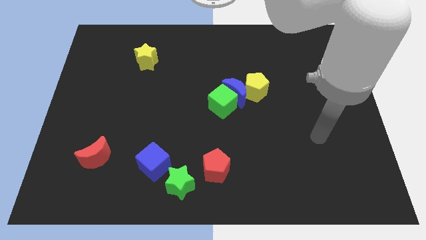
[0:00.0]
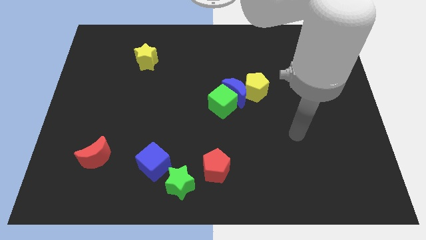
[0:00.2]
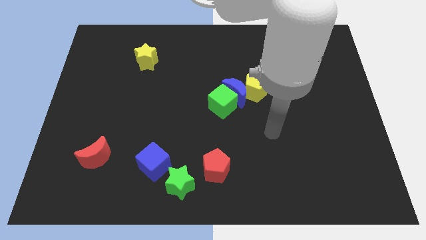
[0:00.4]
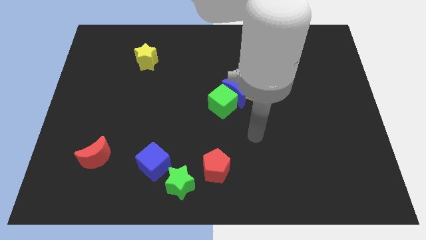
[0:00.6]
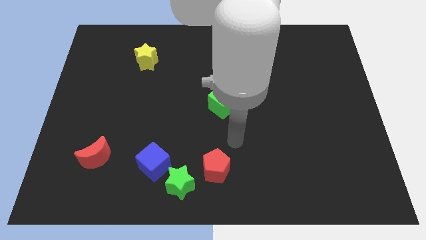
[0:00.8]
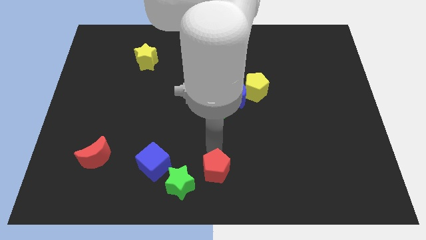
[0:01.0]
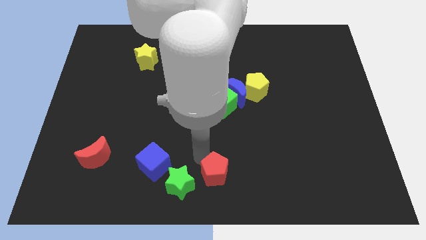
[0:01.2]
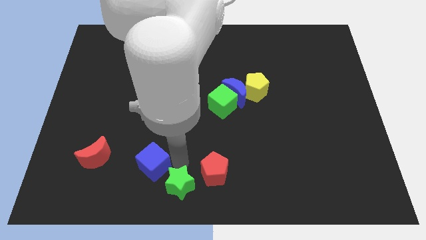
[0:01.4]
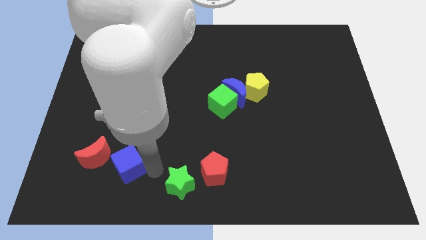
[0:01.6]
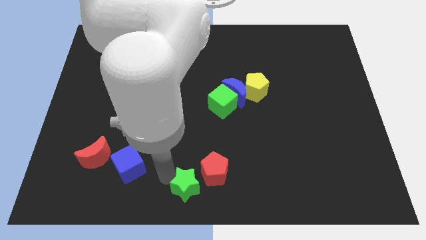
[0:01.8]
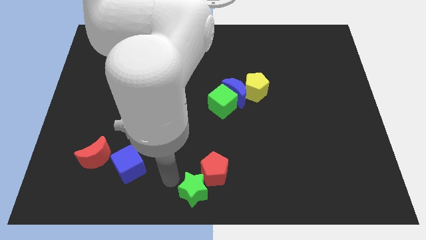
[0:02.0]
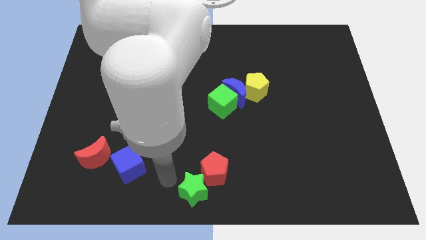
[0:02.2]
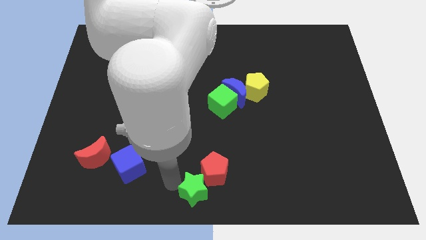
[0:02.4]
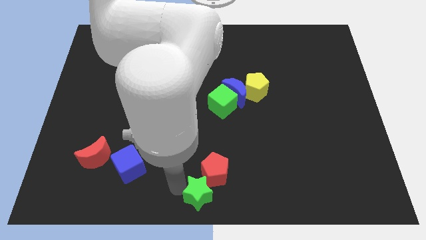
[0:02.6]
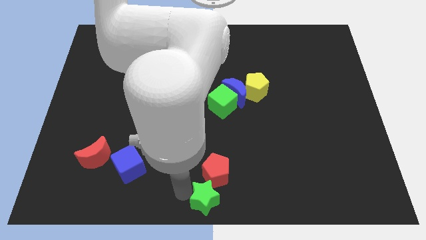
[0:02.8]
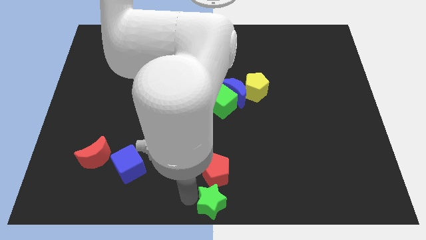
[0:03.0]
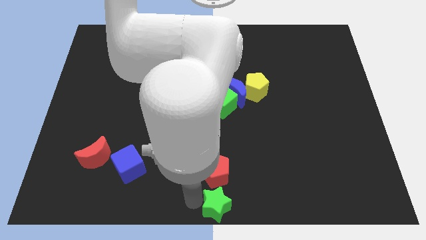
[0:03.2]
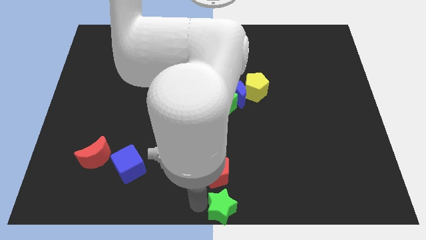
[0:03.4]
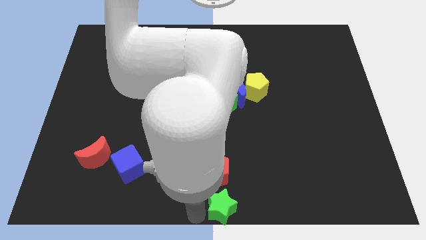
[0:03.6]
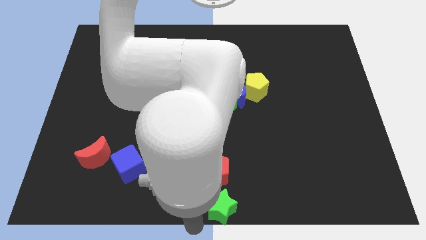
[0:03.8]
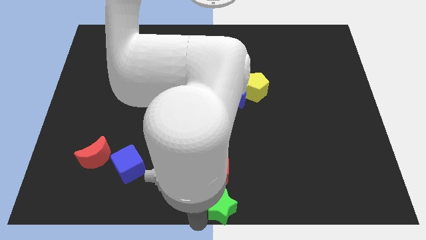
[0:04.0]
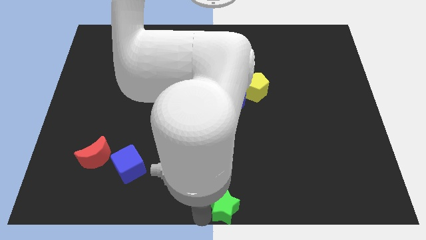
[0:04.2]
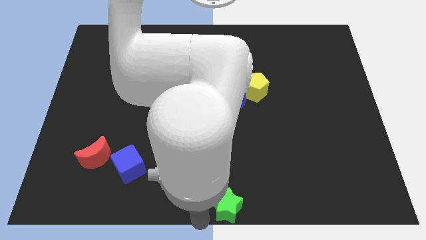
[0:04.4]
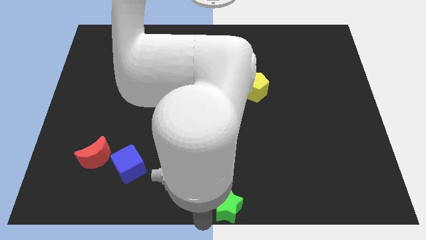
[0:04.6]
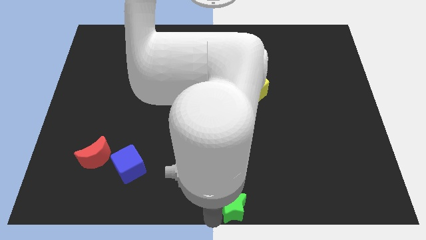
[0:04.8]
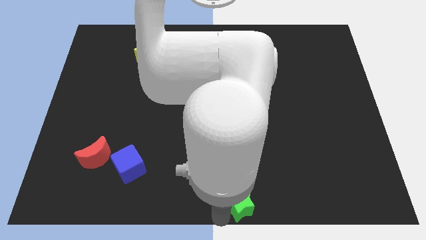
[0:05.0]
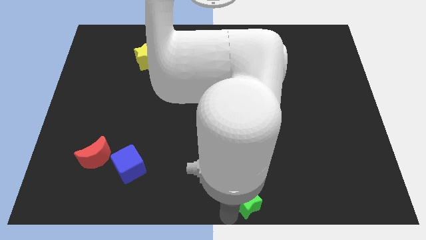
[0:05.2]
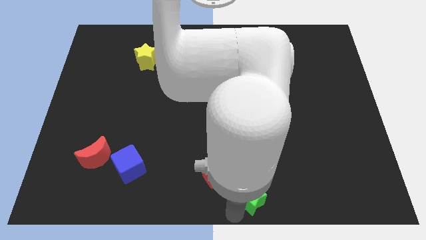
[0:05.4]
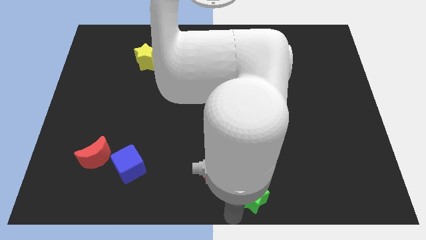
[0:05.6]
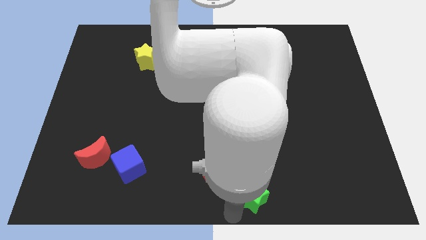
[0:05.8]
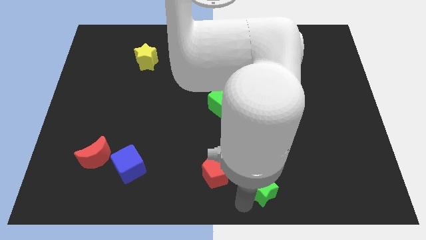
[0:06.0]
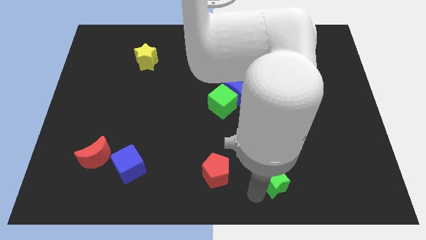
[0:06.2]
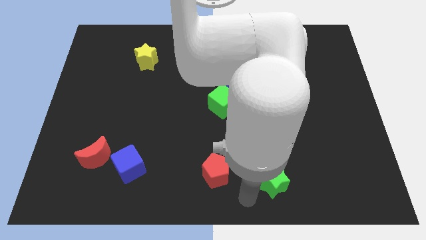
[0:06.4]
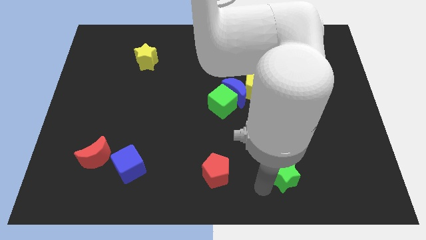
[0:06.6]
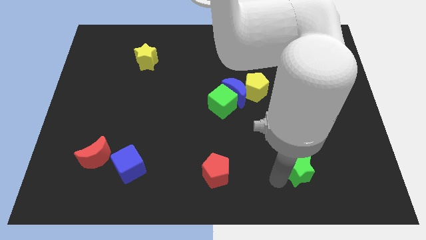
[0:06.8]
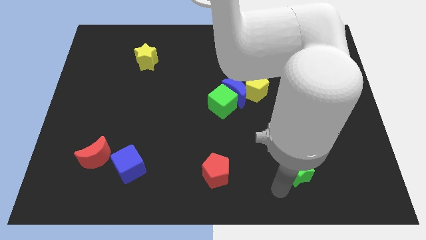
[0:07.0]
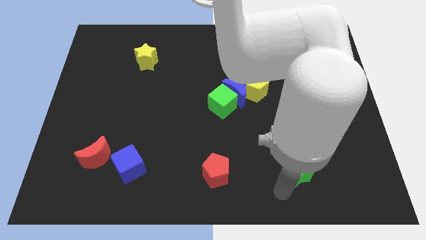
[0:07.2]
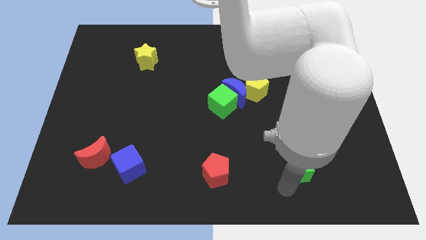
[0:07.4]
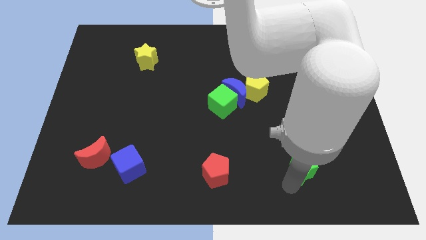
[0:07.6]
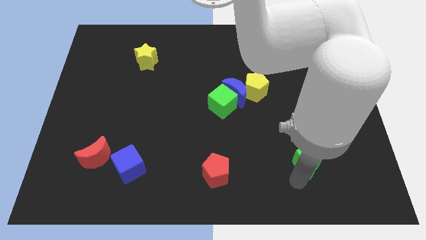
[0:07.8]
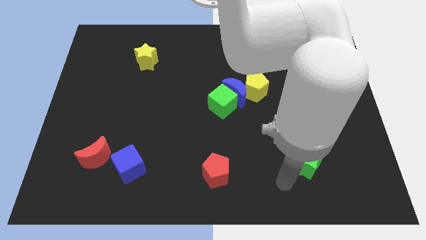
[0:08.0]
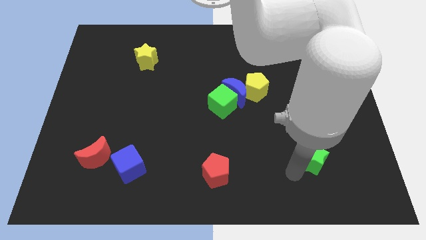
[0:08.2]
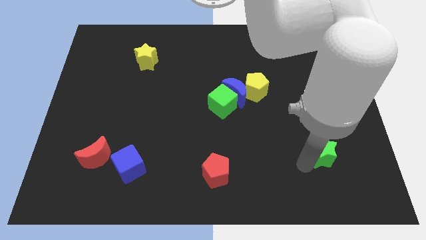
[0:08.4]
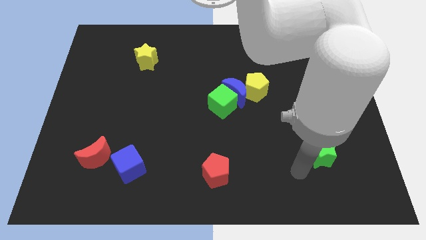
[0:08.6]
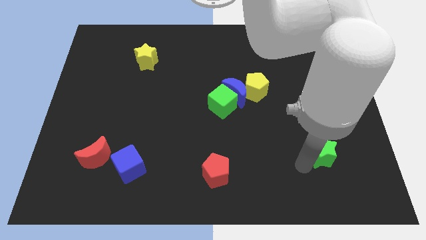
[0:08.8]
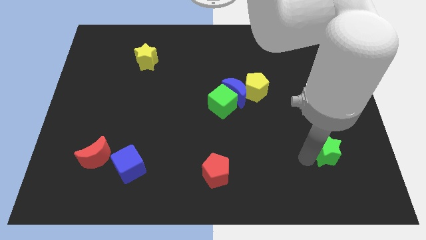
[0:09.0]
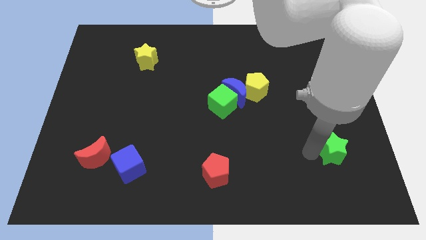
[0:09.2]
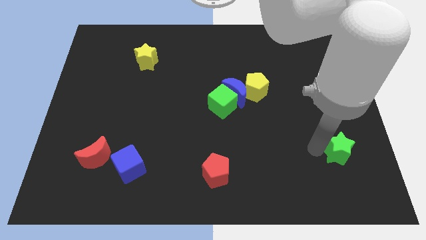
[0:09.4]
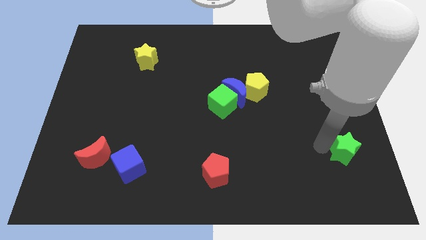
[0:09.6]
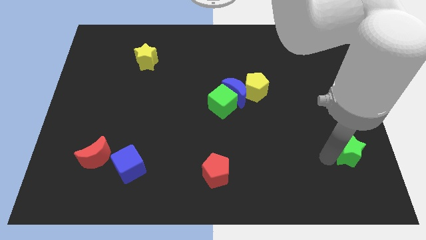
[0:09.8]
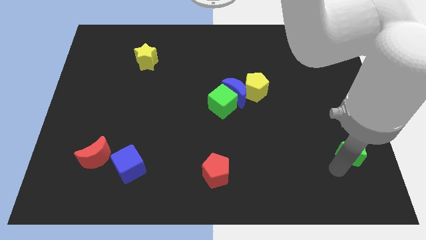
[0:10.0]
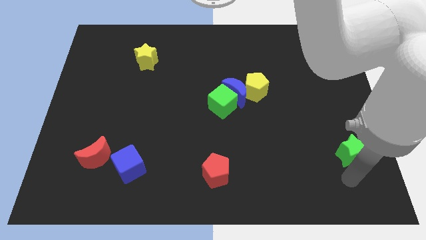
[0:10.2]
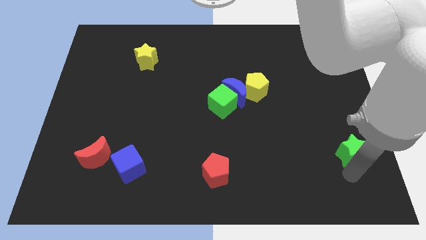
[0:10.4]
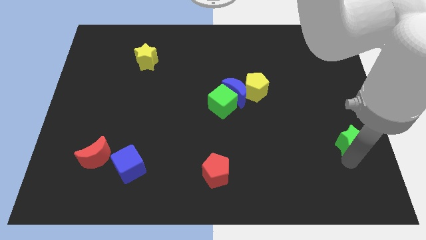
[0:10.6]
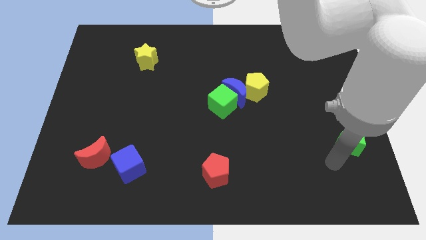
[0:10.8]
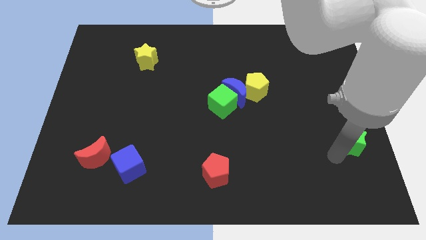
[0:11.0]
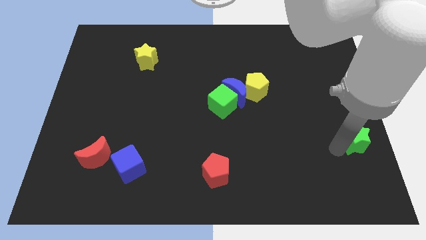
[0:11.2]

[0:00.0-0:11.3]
move the green star to the center right

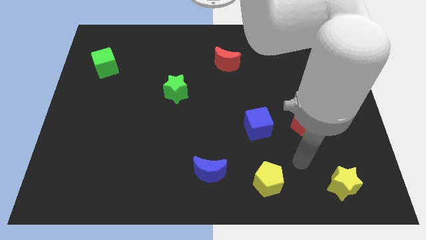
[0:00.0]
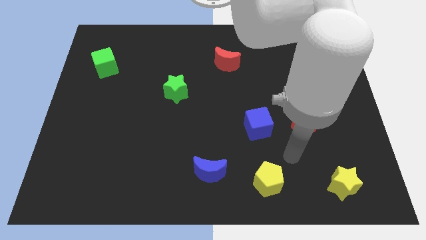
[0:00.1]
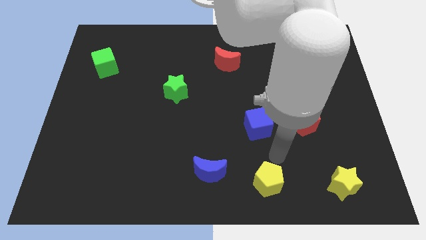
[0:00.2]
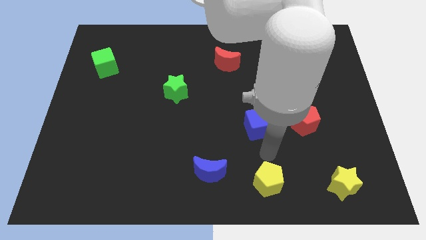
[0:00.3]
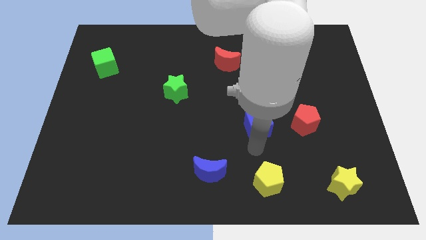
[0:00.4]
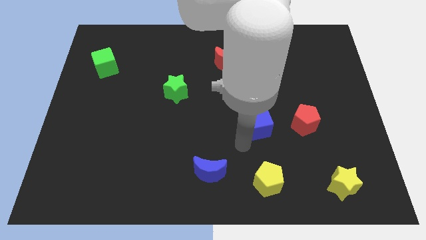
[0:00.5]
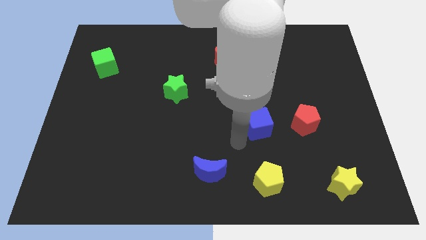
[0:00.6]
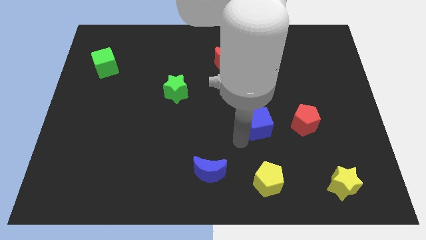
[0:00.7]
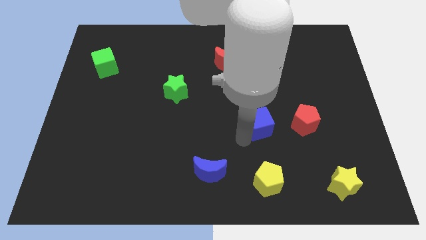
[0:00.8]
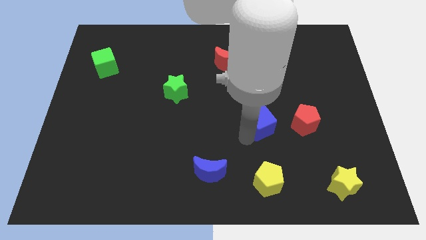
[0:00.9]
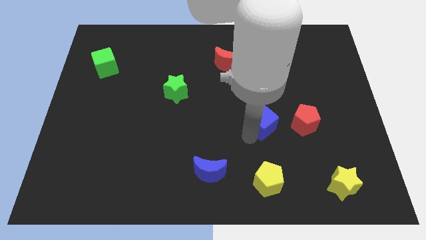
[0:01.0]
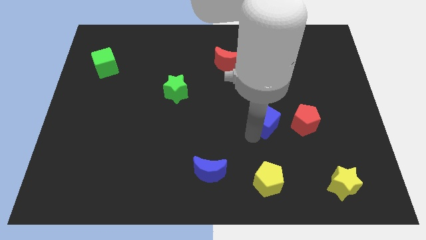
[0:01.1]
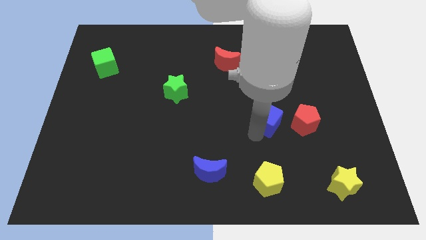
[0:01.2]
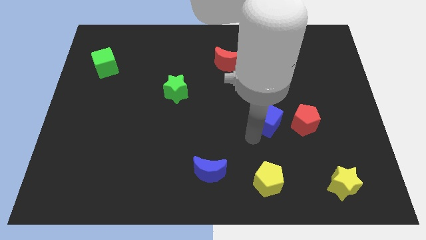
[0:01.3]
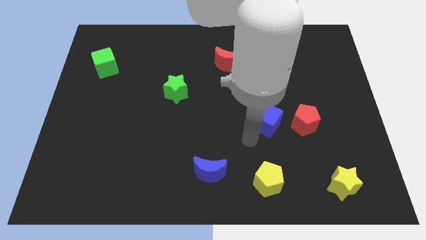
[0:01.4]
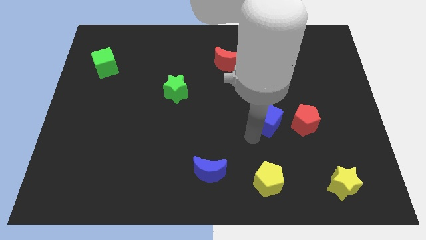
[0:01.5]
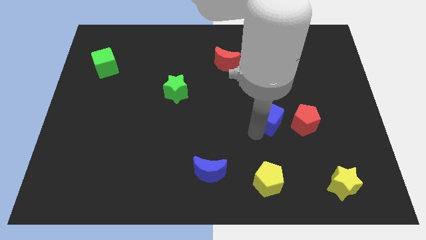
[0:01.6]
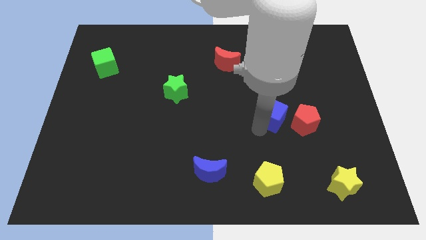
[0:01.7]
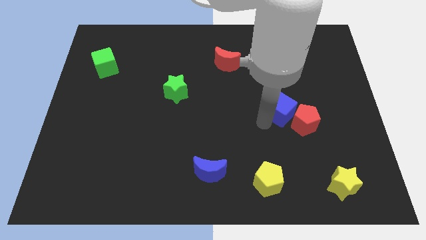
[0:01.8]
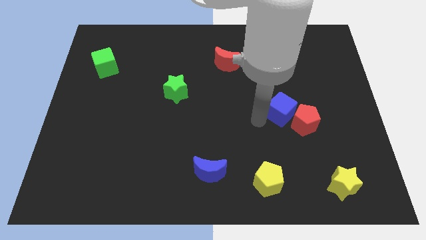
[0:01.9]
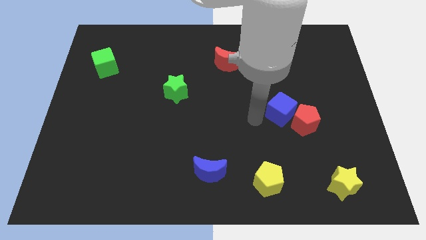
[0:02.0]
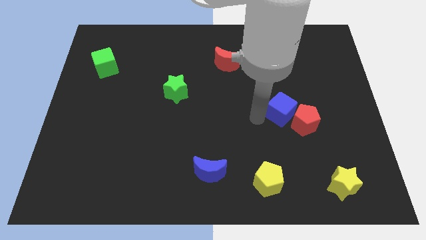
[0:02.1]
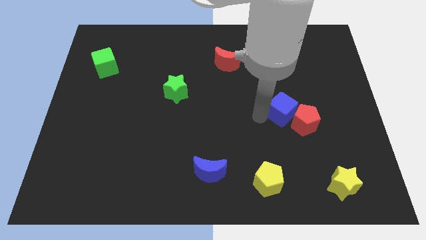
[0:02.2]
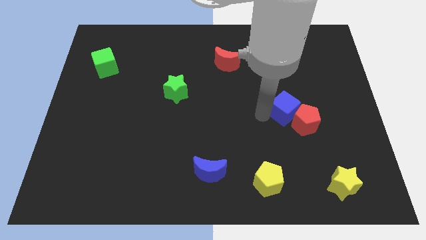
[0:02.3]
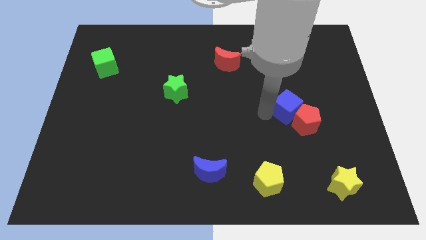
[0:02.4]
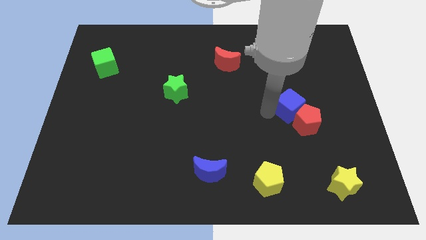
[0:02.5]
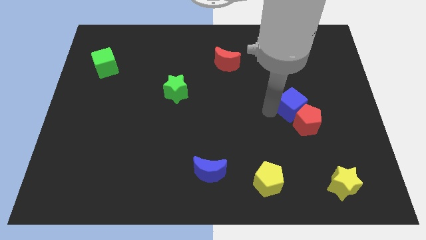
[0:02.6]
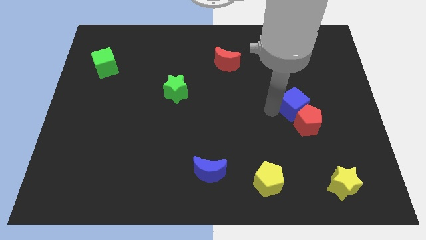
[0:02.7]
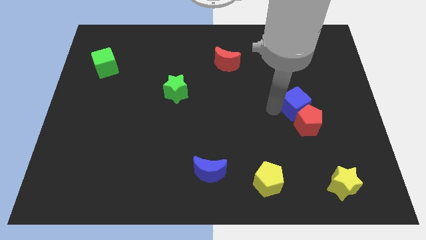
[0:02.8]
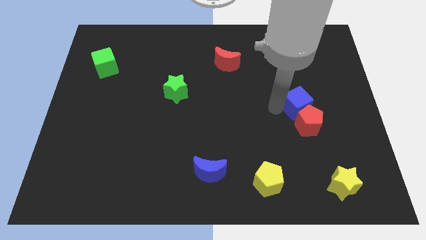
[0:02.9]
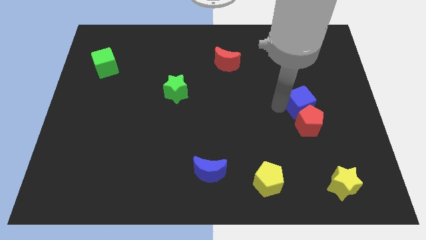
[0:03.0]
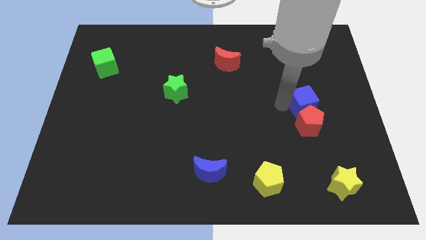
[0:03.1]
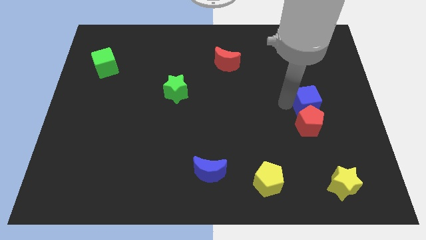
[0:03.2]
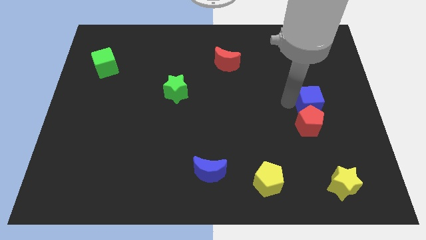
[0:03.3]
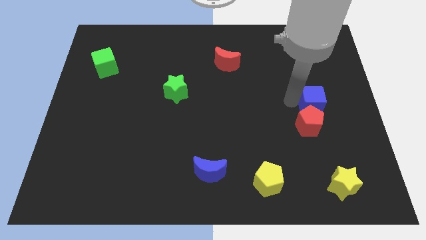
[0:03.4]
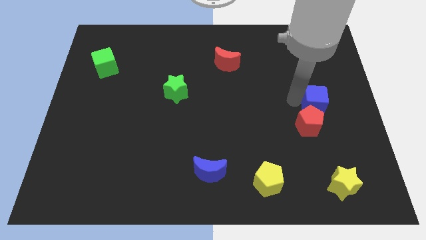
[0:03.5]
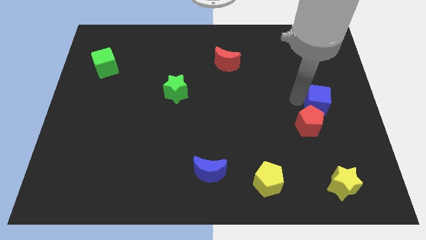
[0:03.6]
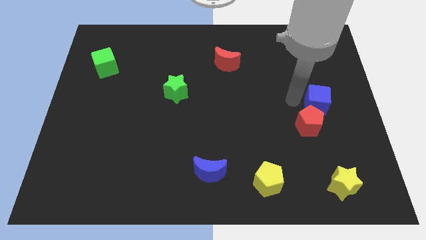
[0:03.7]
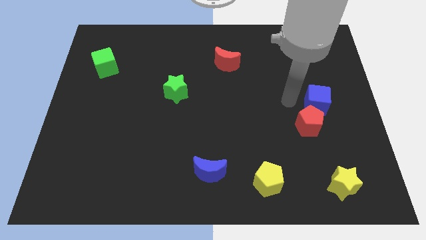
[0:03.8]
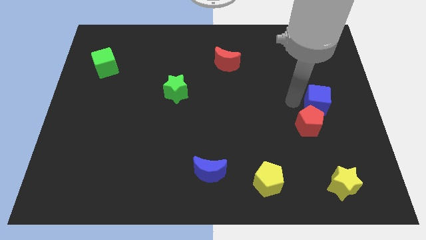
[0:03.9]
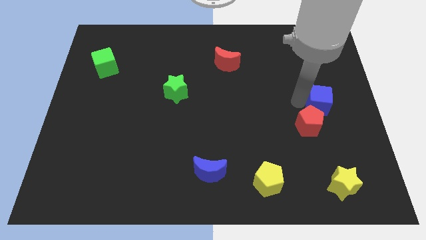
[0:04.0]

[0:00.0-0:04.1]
move the blue cube to the center right
